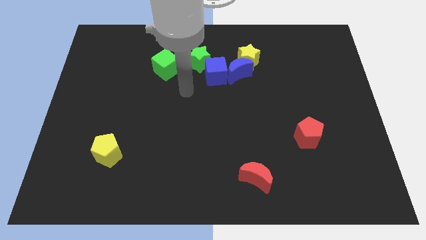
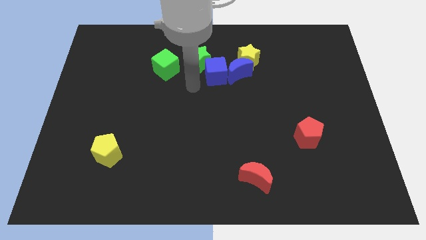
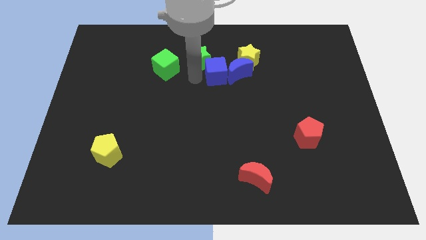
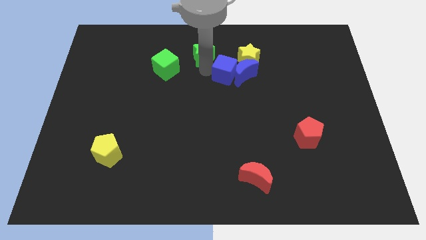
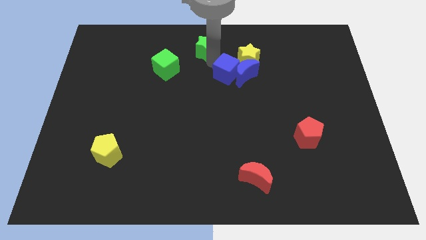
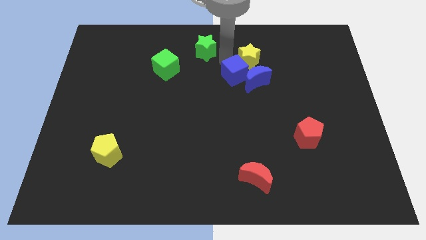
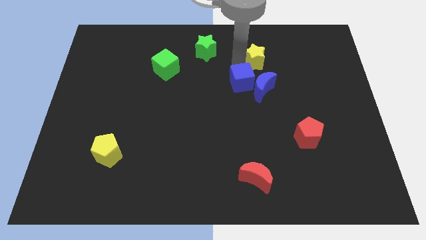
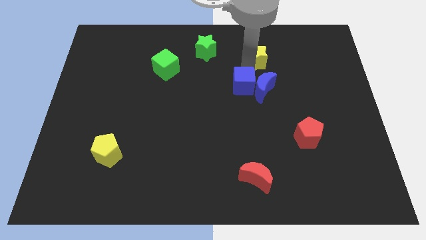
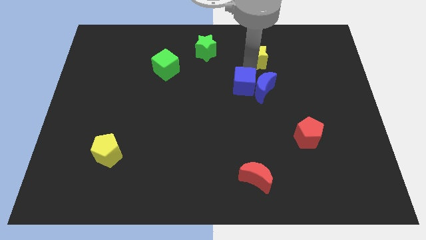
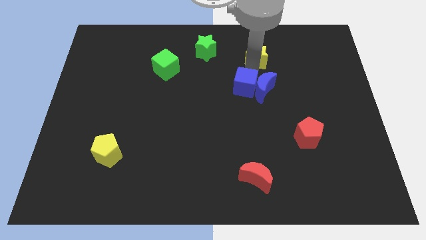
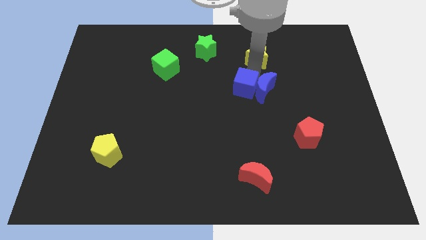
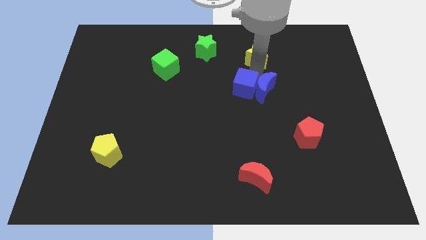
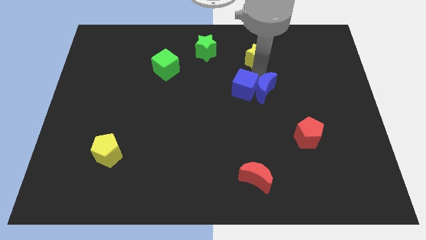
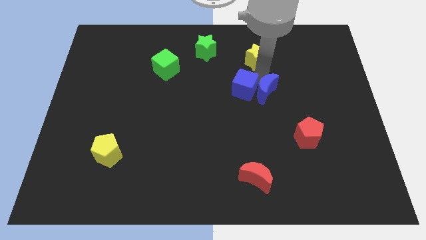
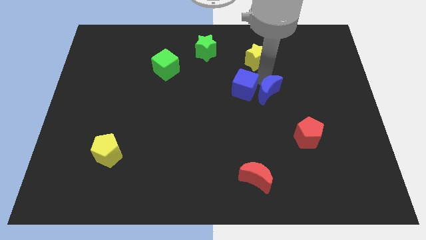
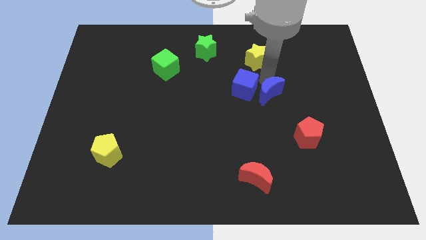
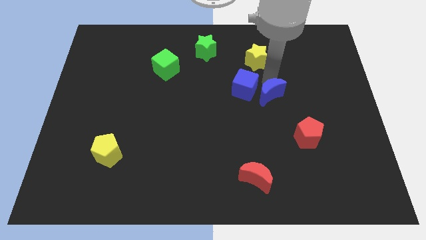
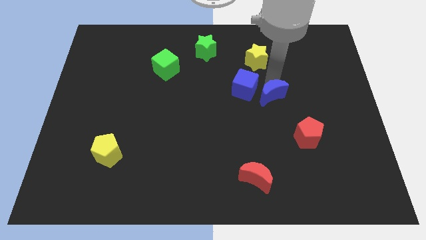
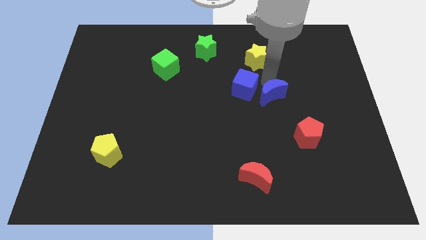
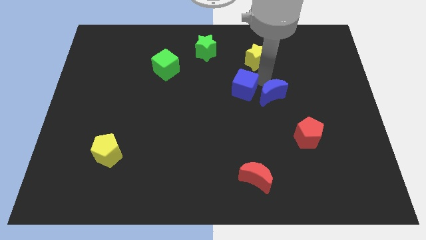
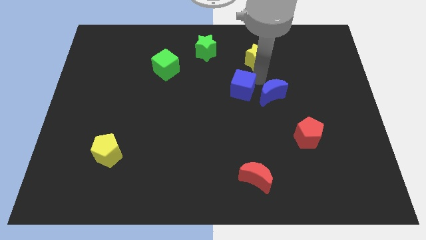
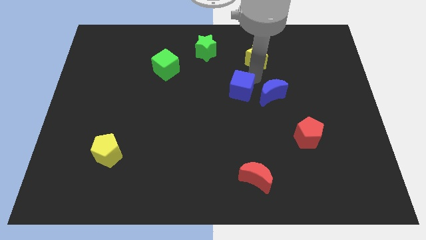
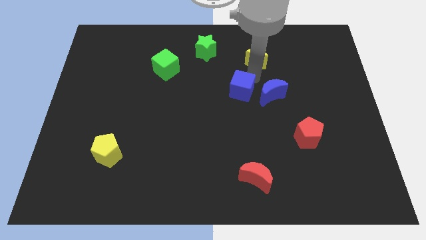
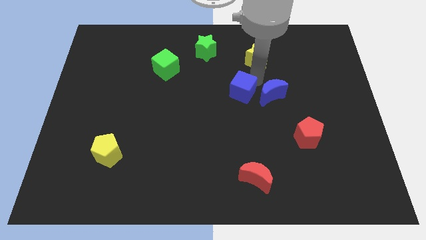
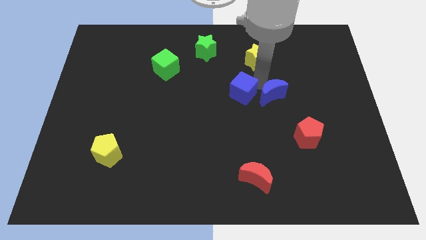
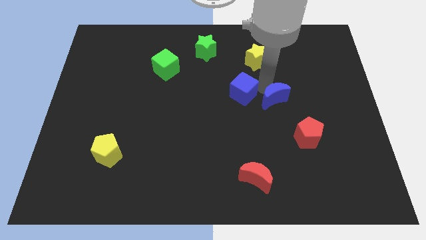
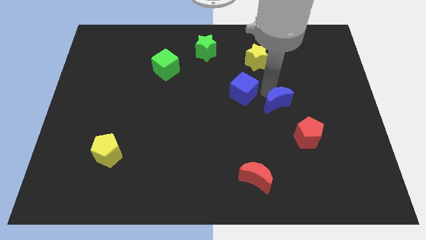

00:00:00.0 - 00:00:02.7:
separate the blue moon from the yellow star and blue cube

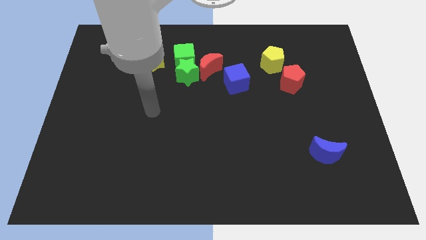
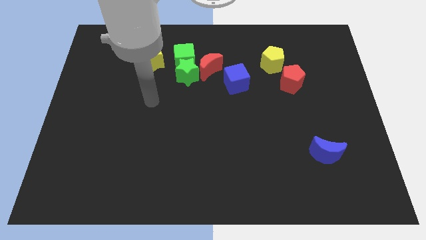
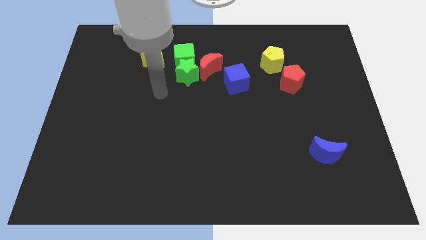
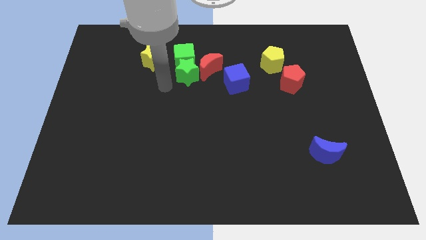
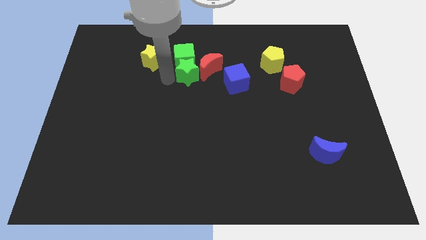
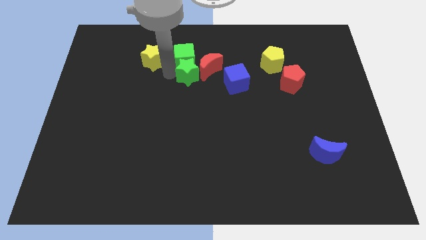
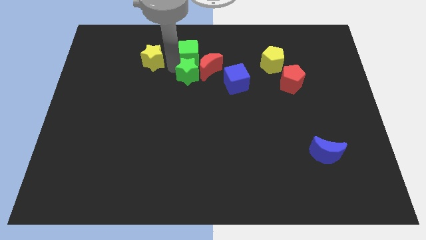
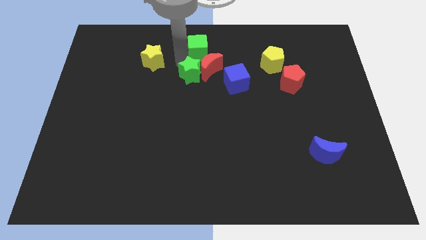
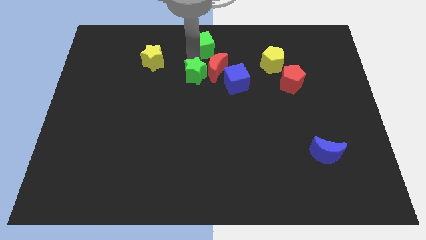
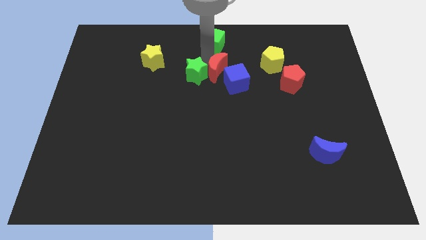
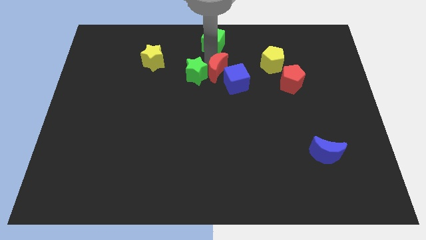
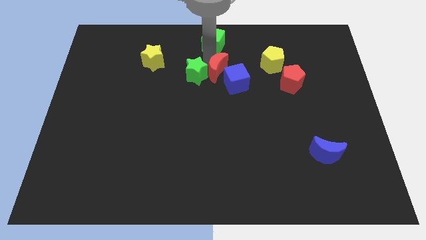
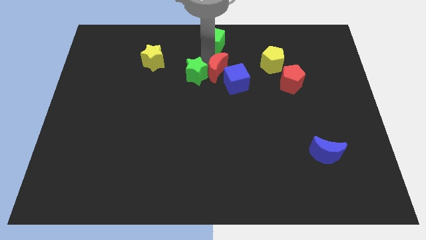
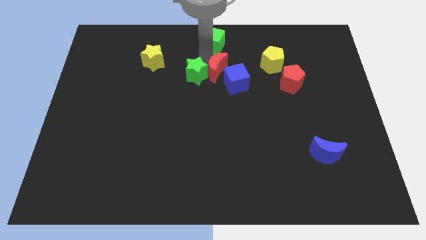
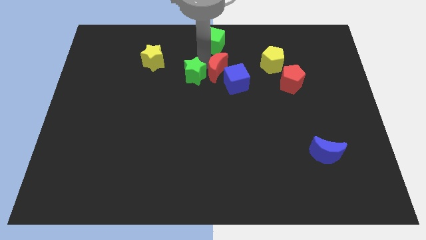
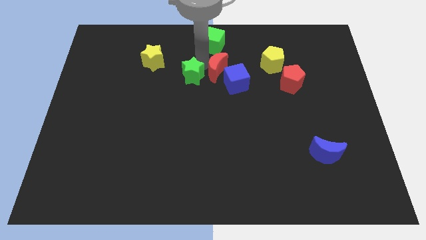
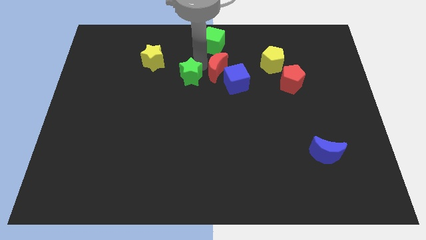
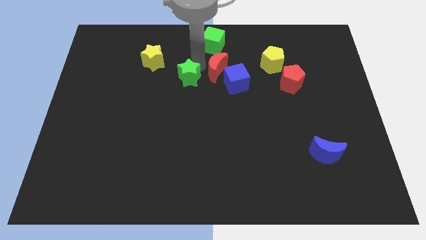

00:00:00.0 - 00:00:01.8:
pull the green star apart from the green cube and red moon

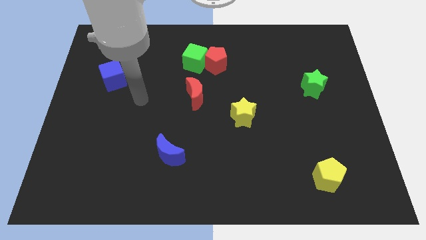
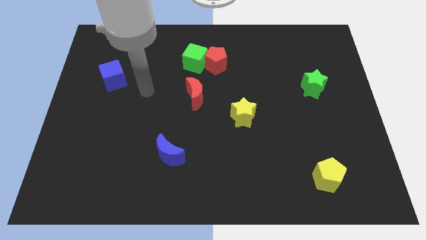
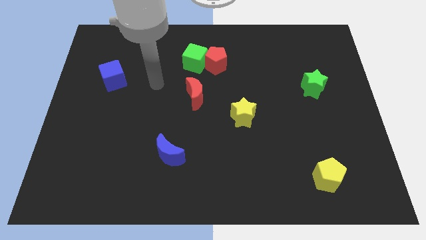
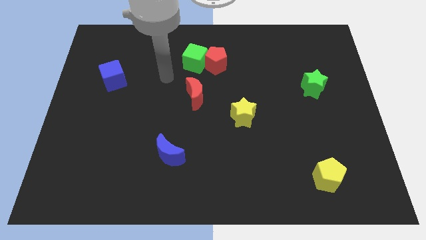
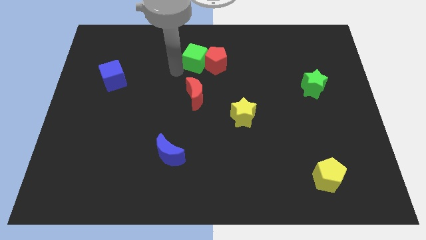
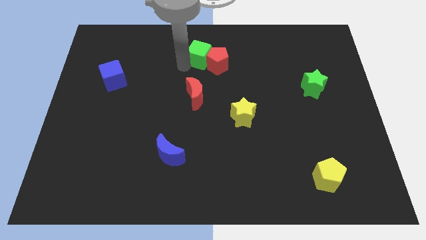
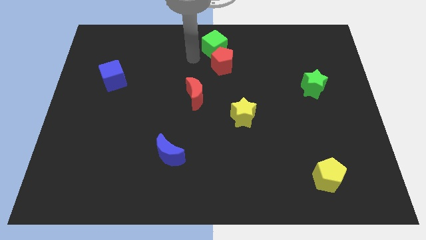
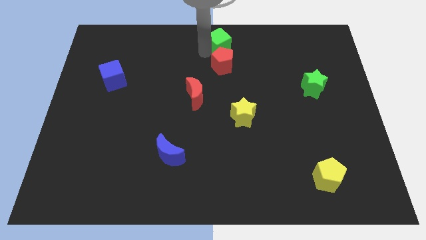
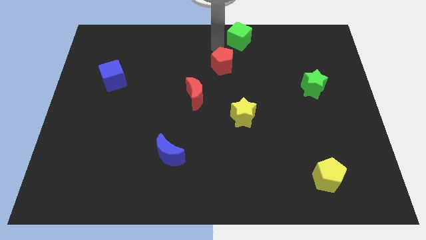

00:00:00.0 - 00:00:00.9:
pull the red pentagon apart from the green cube

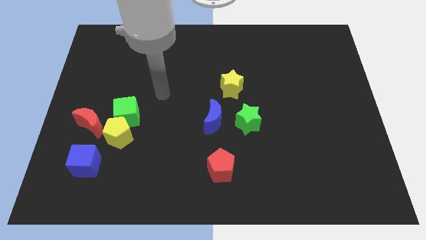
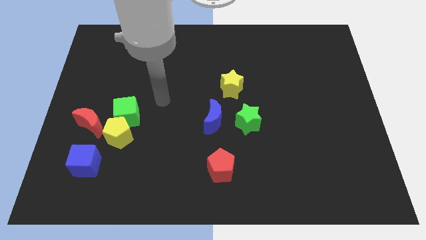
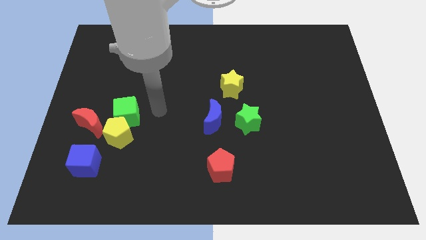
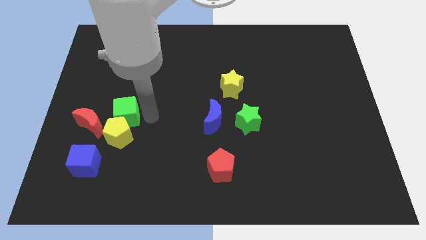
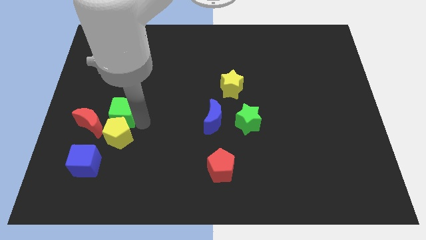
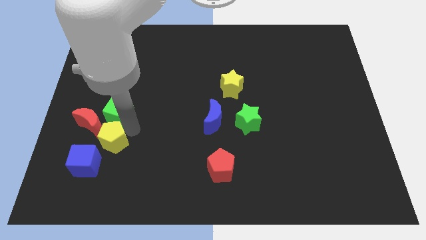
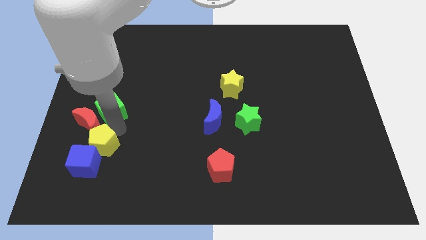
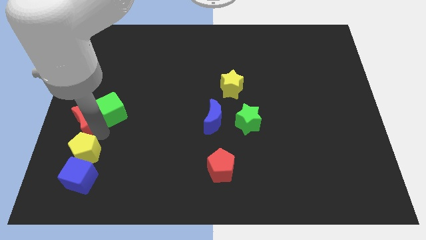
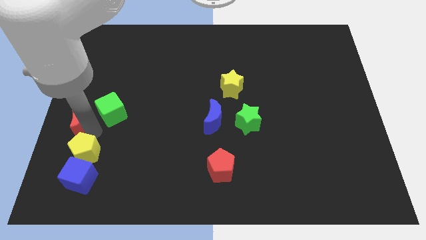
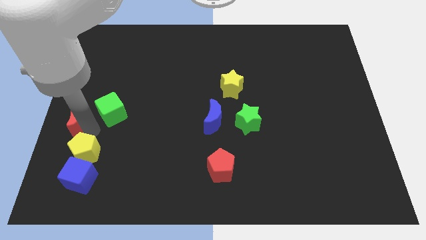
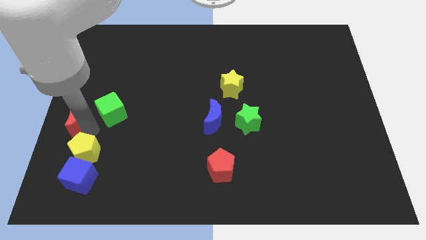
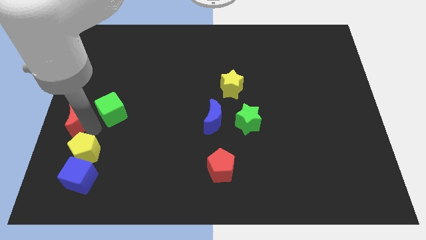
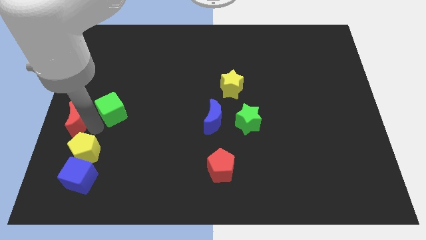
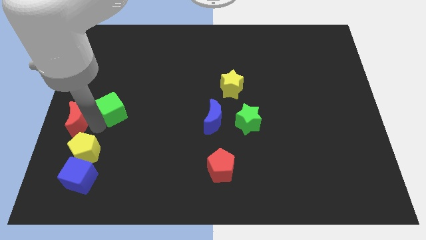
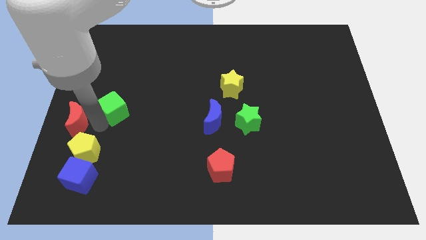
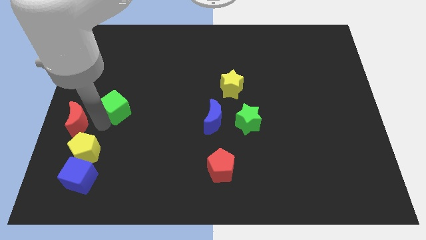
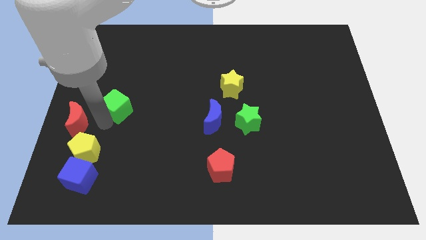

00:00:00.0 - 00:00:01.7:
move the green cube away from the yellow pentagon and red moon

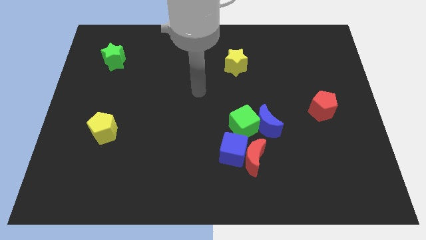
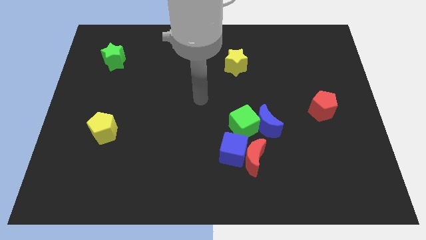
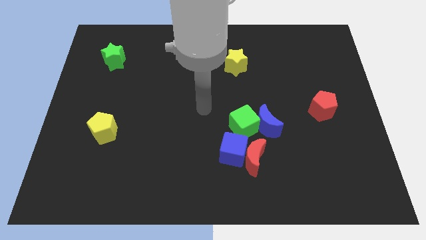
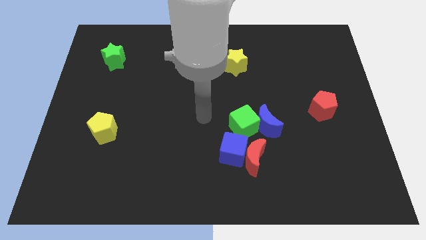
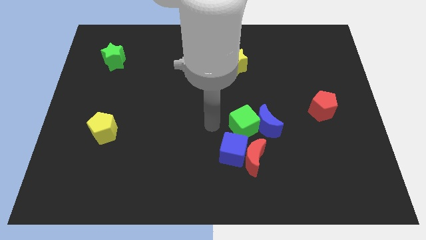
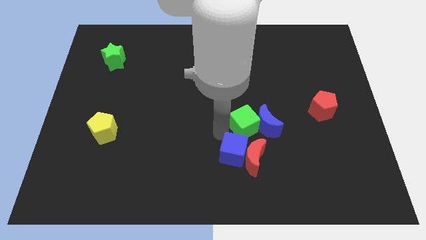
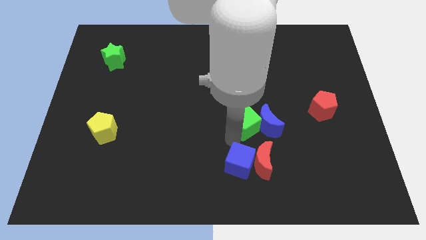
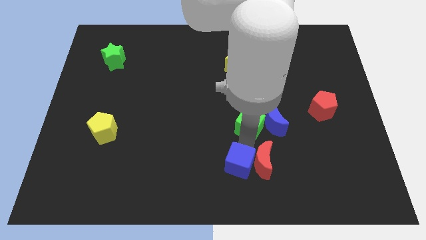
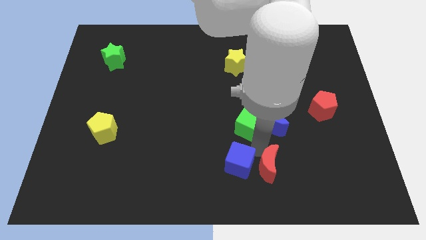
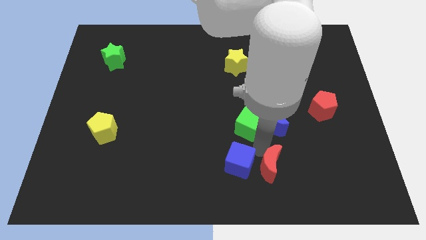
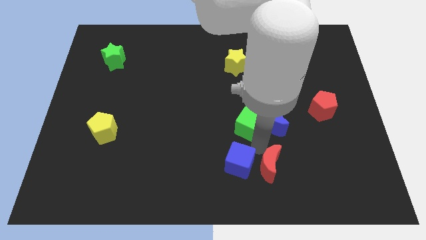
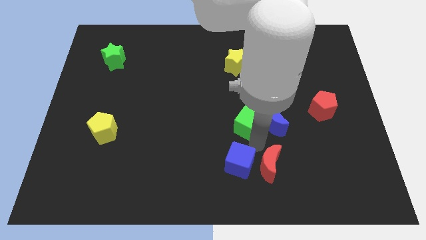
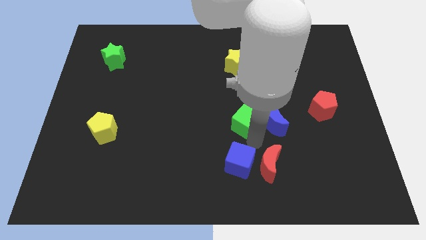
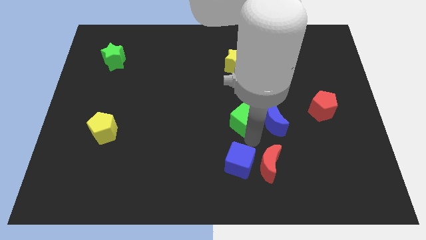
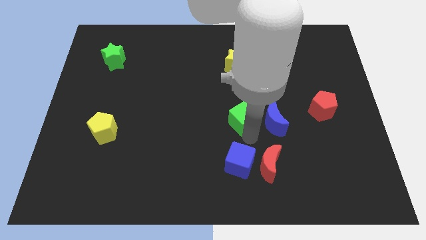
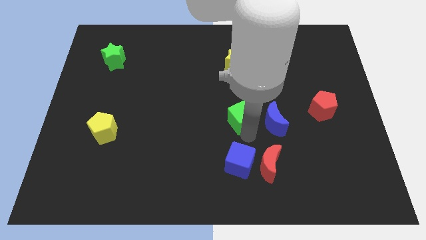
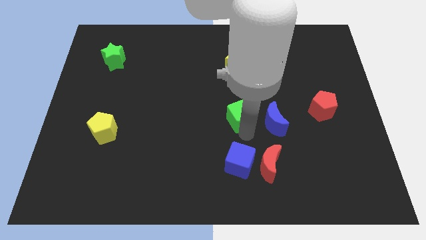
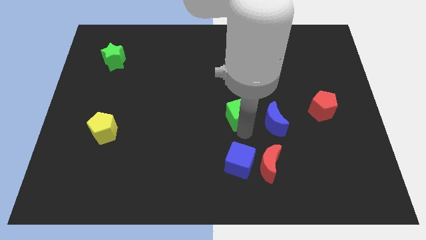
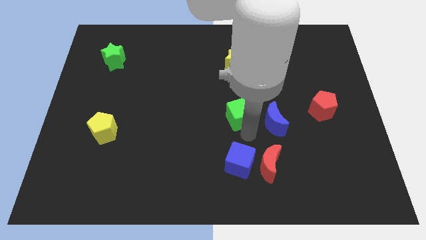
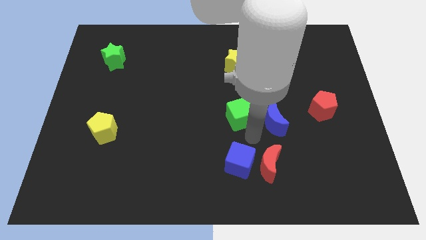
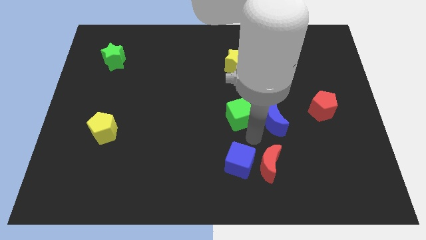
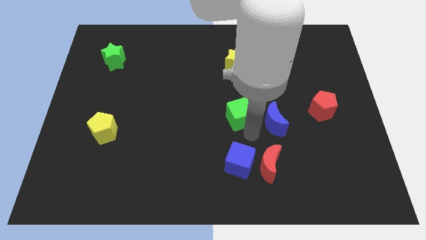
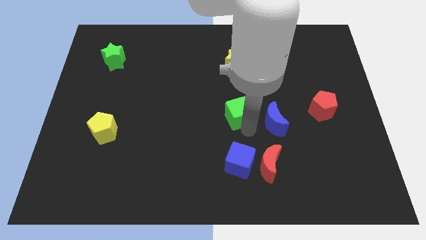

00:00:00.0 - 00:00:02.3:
separate the green cube from the blue moon, blue cube, and red moon
